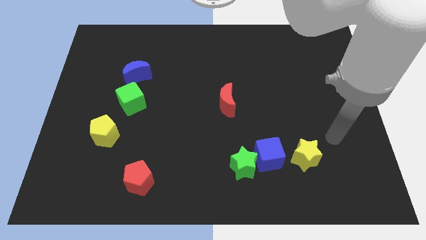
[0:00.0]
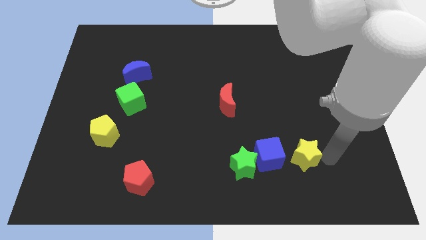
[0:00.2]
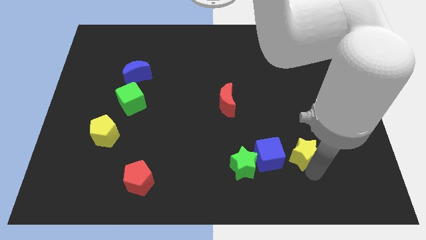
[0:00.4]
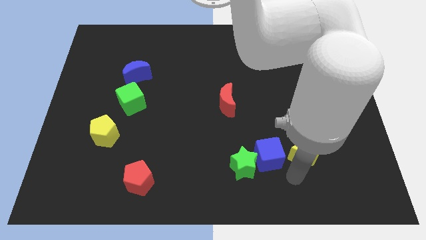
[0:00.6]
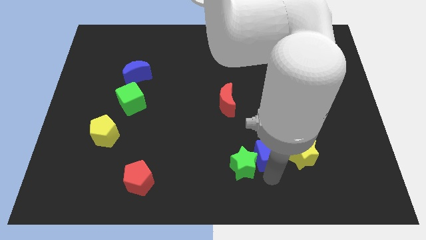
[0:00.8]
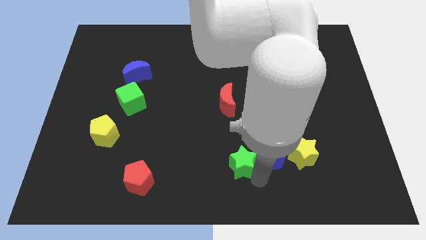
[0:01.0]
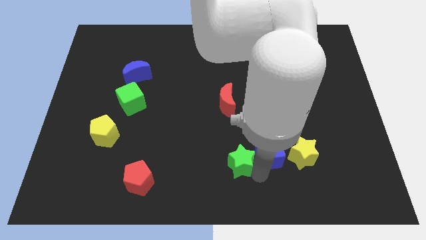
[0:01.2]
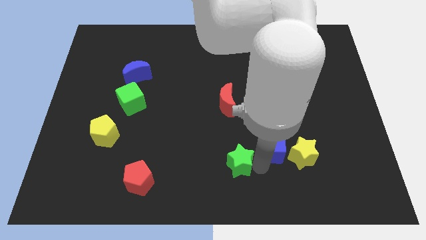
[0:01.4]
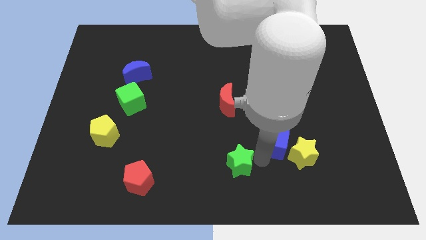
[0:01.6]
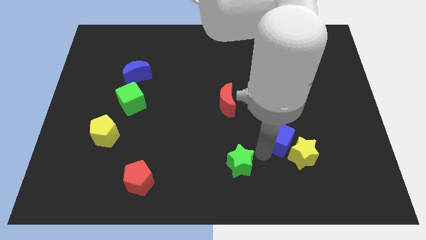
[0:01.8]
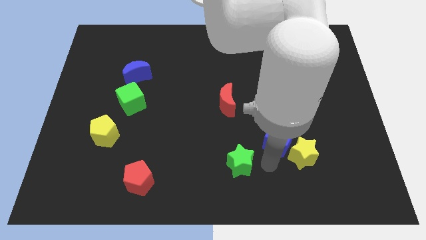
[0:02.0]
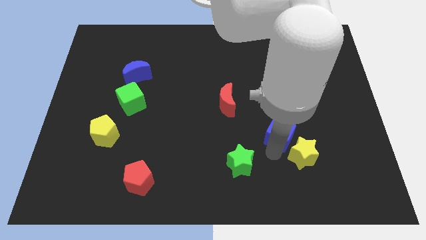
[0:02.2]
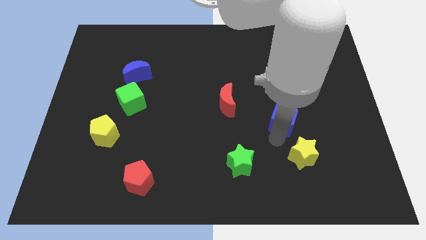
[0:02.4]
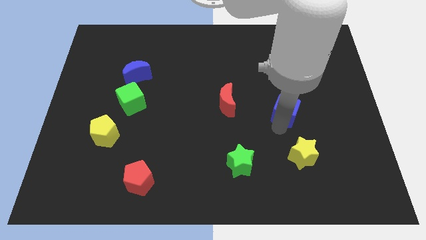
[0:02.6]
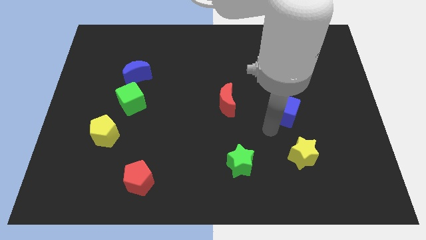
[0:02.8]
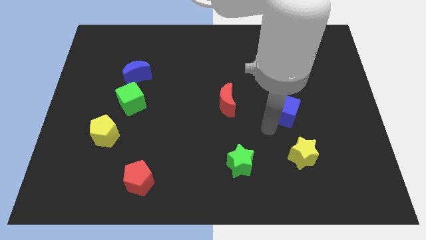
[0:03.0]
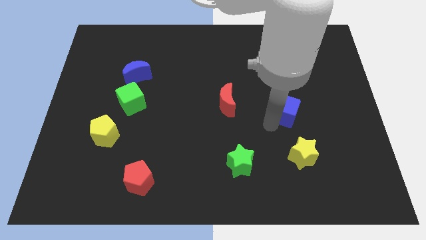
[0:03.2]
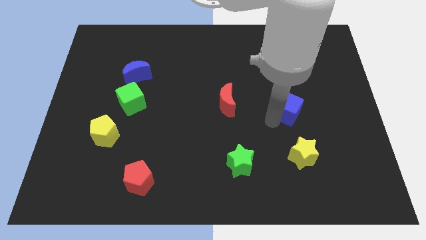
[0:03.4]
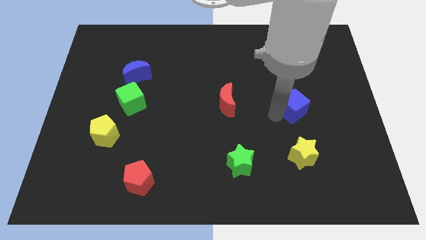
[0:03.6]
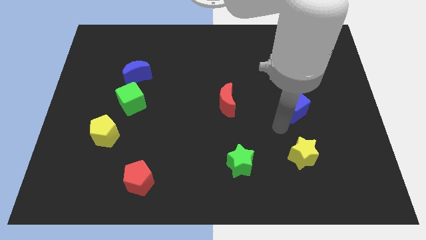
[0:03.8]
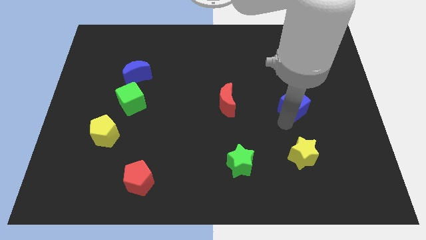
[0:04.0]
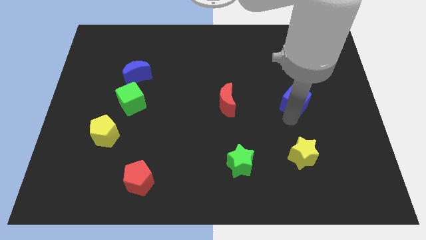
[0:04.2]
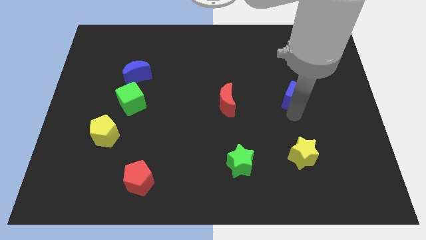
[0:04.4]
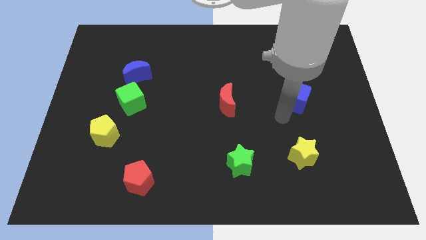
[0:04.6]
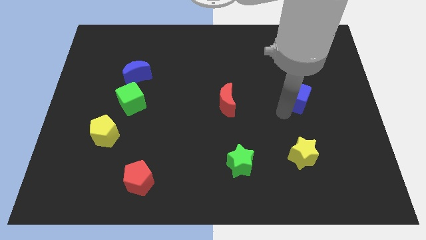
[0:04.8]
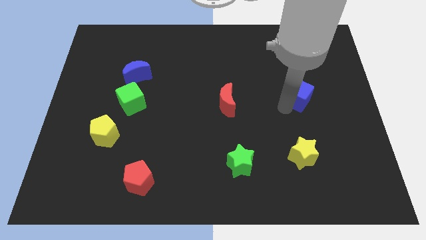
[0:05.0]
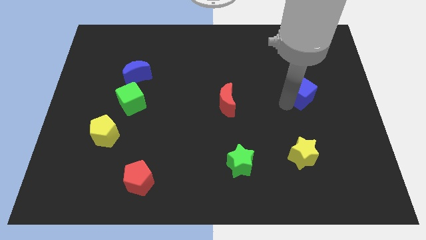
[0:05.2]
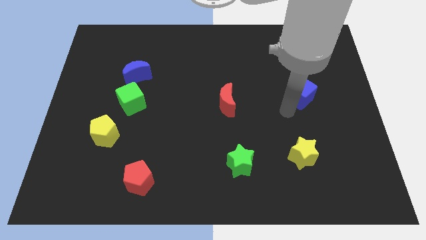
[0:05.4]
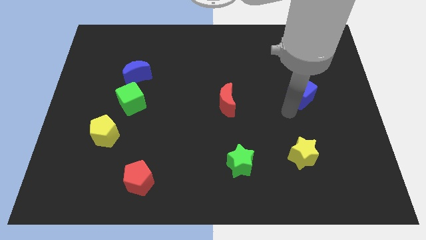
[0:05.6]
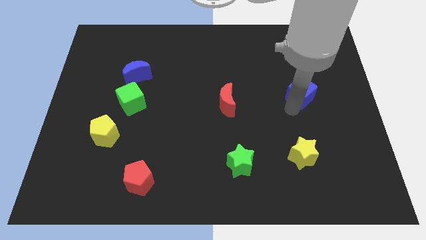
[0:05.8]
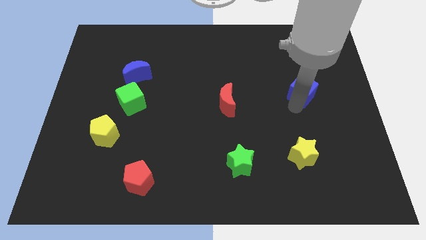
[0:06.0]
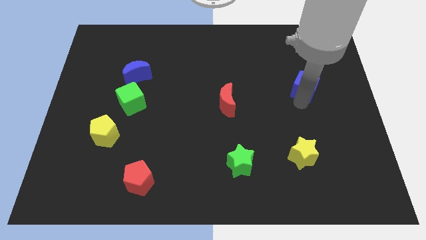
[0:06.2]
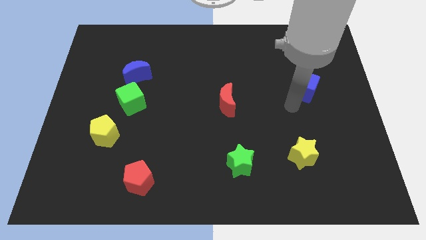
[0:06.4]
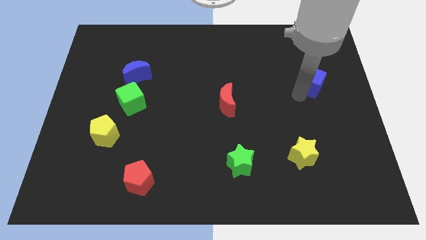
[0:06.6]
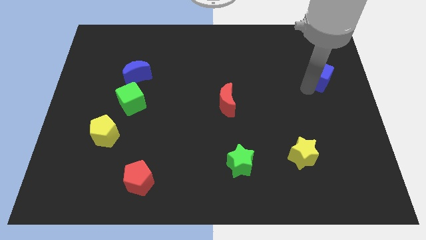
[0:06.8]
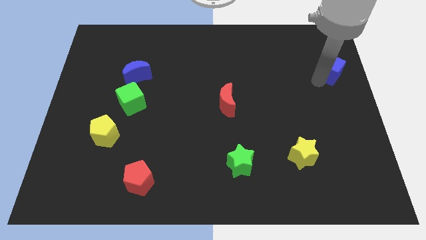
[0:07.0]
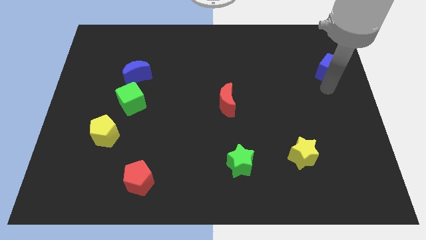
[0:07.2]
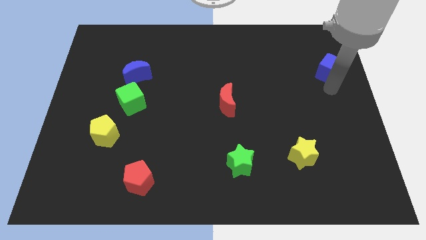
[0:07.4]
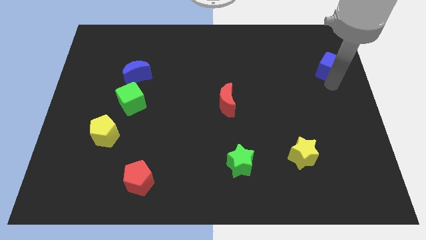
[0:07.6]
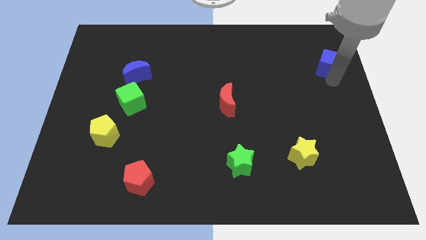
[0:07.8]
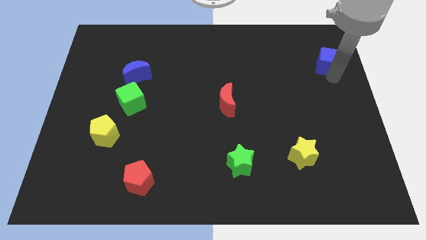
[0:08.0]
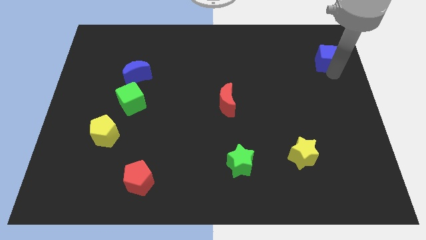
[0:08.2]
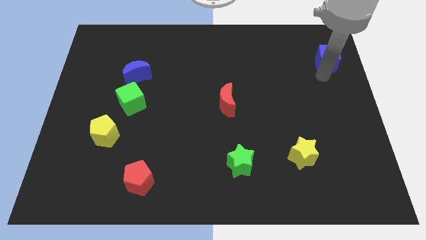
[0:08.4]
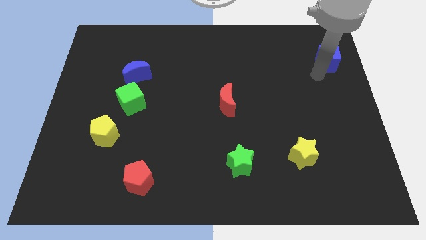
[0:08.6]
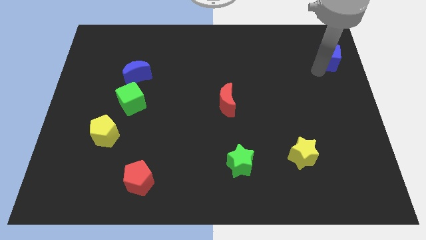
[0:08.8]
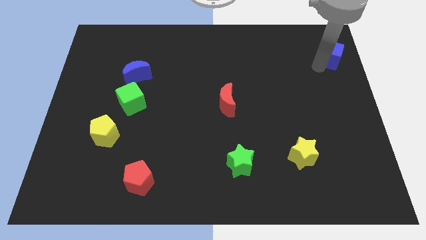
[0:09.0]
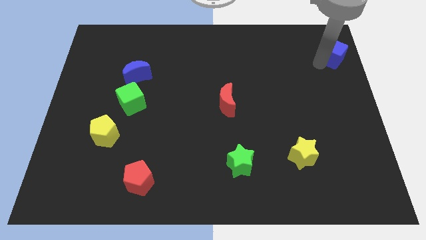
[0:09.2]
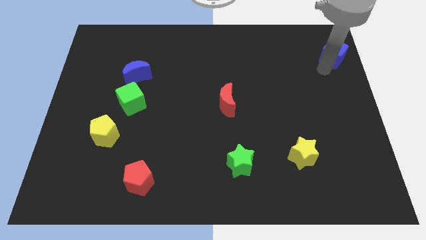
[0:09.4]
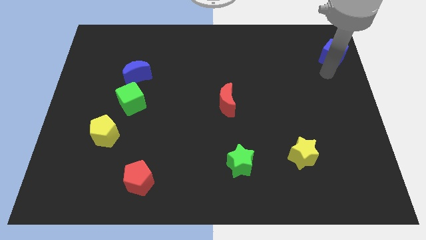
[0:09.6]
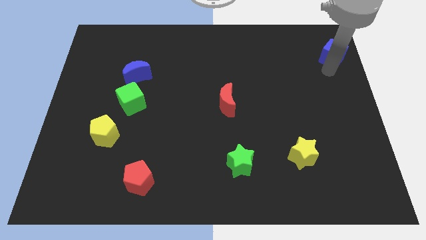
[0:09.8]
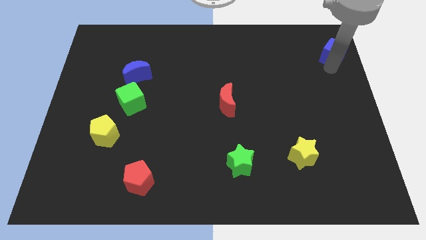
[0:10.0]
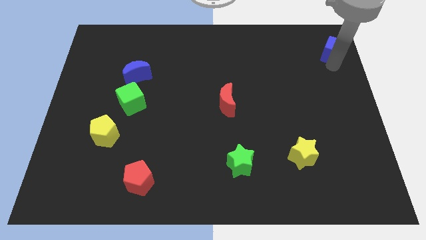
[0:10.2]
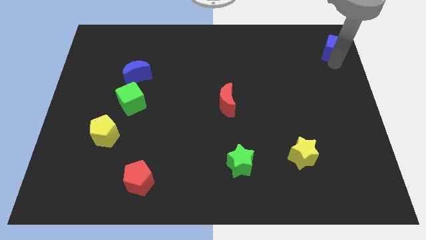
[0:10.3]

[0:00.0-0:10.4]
move the blue cube to the upper right corner

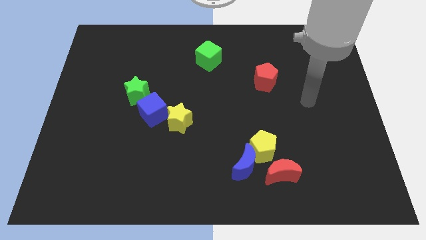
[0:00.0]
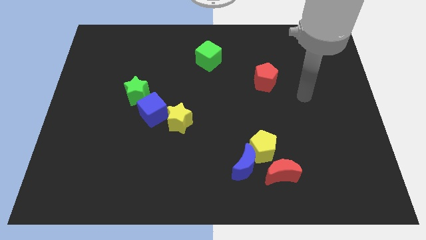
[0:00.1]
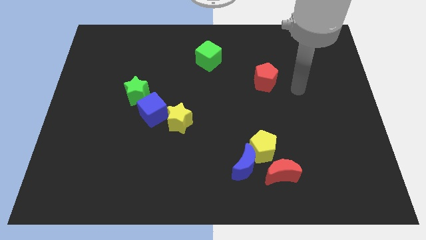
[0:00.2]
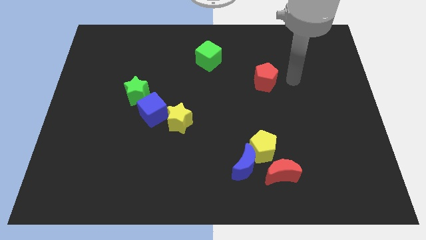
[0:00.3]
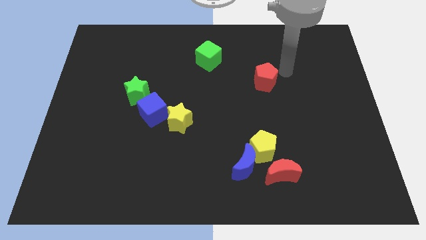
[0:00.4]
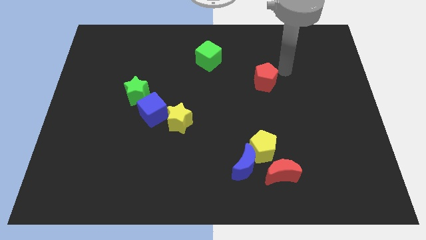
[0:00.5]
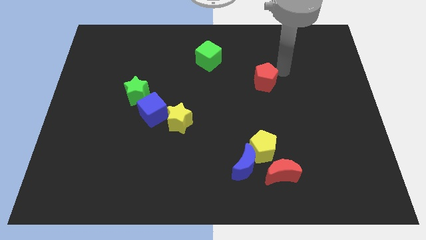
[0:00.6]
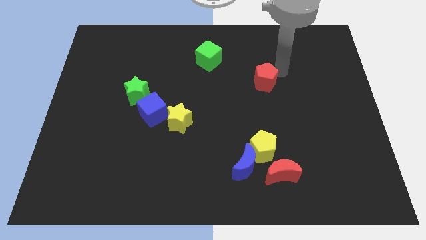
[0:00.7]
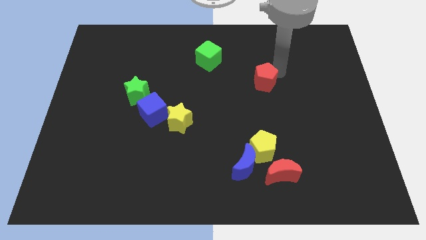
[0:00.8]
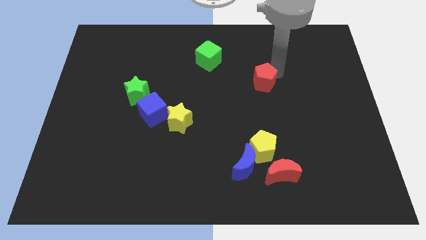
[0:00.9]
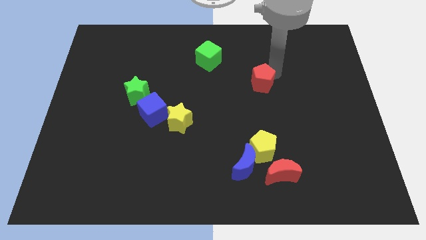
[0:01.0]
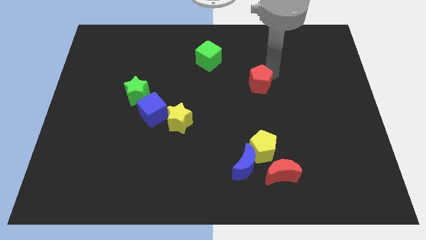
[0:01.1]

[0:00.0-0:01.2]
slide the red pentagon to the center of the board
